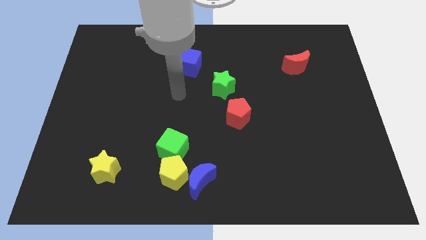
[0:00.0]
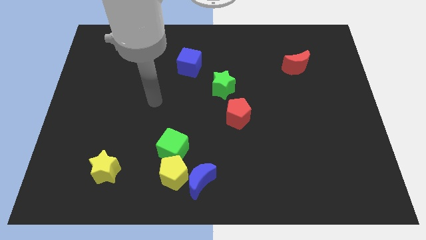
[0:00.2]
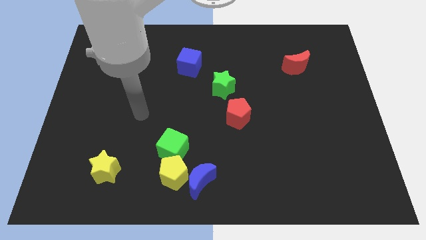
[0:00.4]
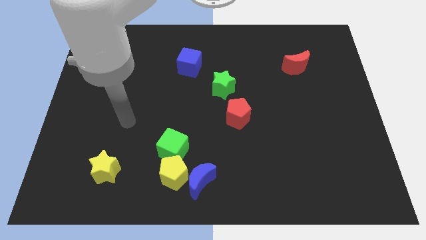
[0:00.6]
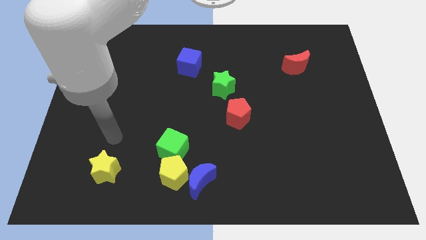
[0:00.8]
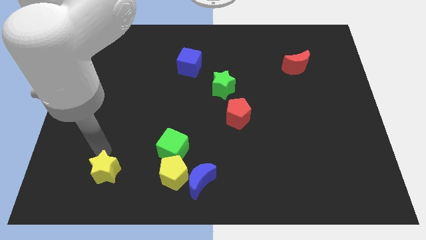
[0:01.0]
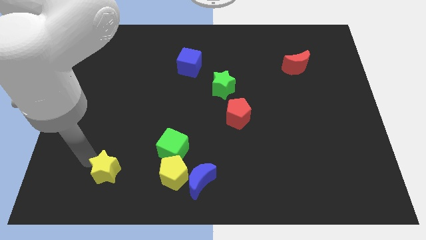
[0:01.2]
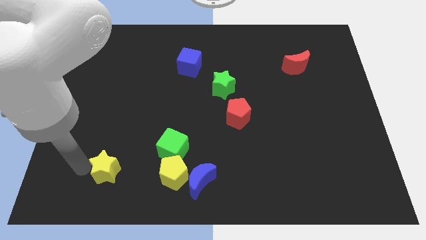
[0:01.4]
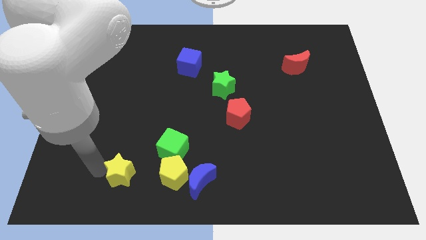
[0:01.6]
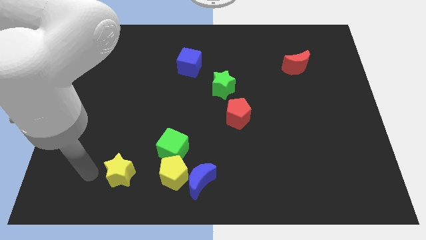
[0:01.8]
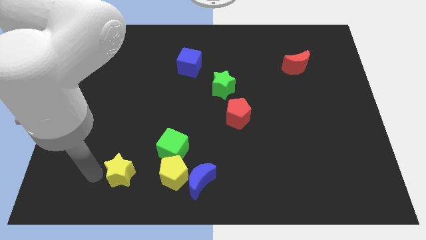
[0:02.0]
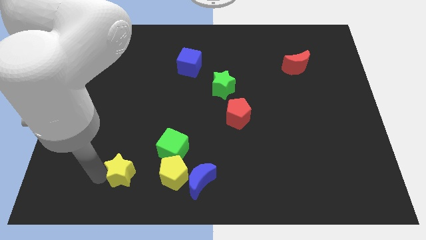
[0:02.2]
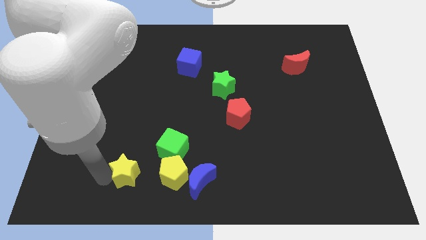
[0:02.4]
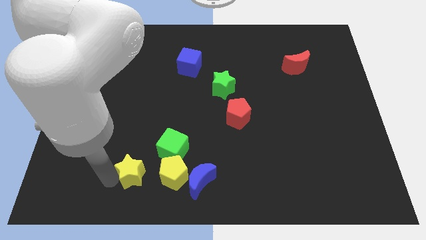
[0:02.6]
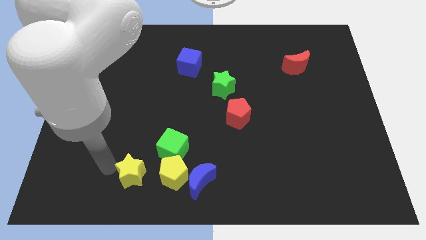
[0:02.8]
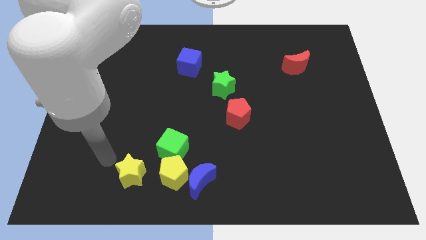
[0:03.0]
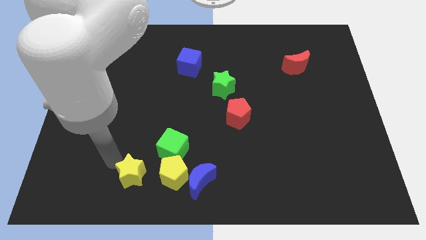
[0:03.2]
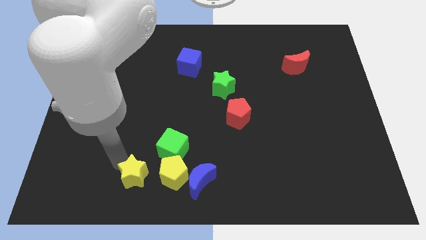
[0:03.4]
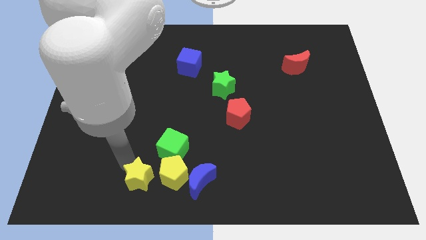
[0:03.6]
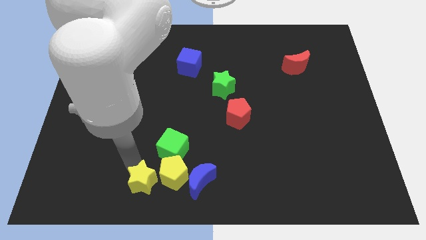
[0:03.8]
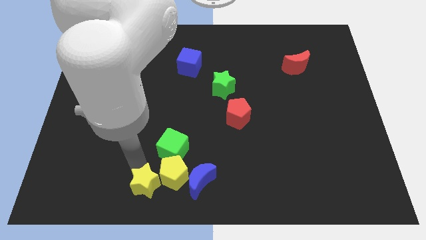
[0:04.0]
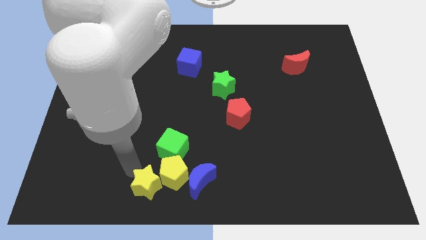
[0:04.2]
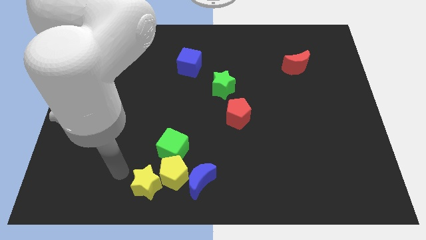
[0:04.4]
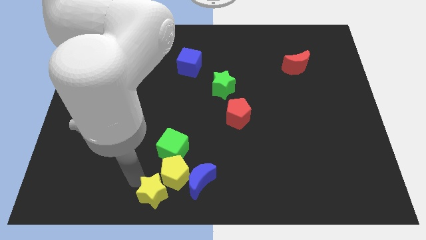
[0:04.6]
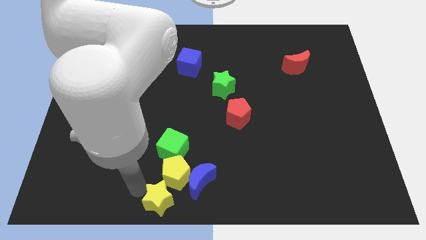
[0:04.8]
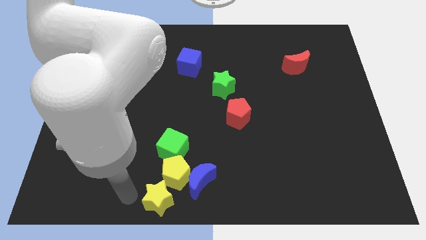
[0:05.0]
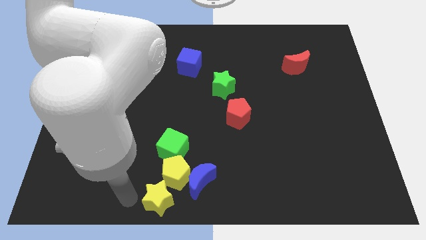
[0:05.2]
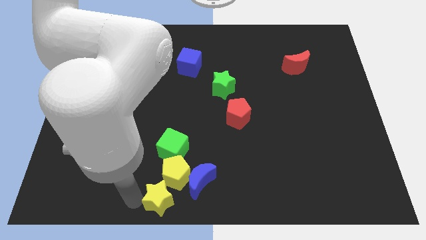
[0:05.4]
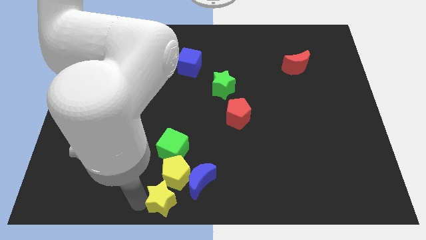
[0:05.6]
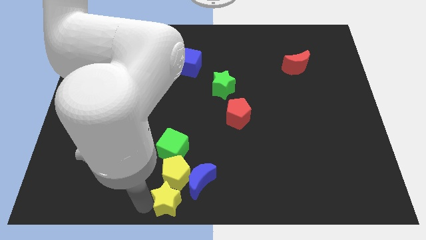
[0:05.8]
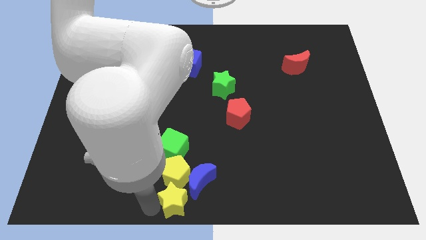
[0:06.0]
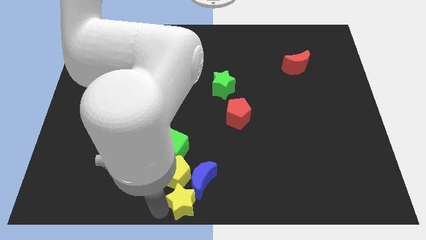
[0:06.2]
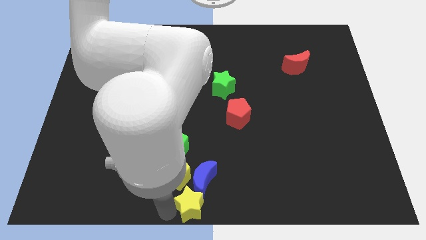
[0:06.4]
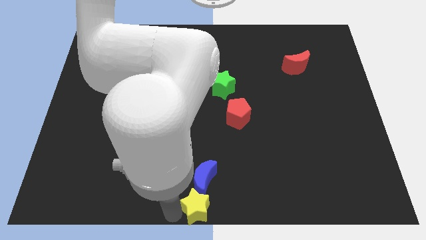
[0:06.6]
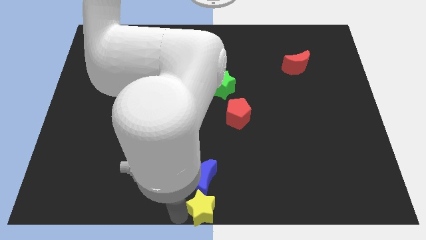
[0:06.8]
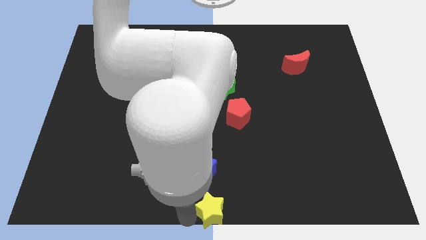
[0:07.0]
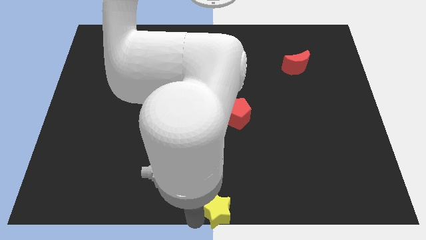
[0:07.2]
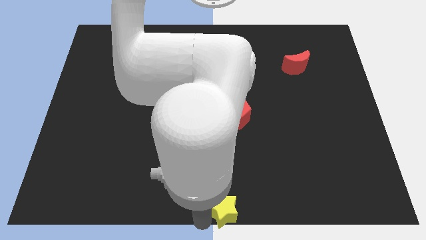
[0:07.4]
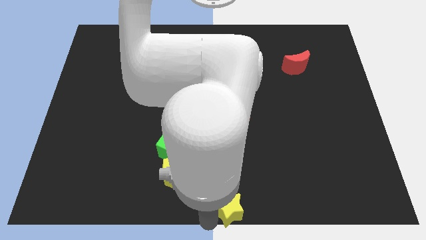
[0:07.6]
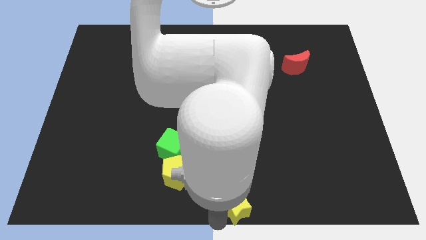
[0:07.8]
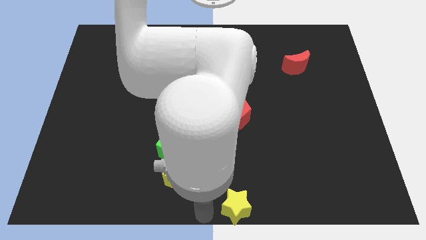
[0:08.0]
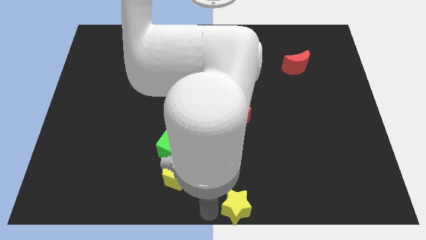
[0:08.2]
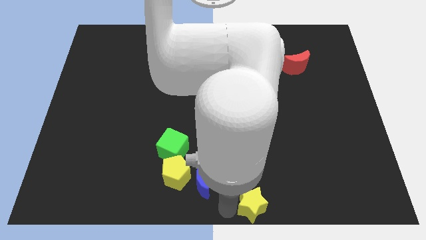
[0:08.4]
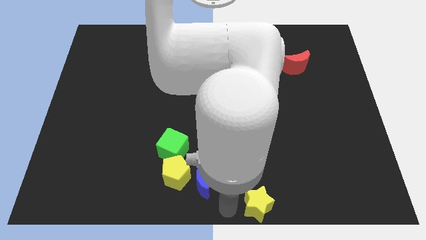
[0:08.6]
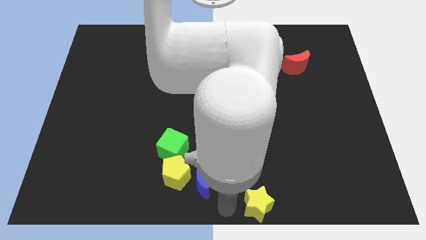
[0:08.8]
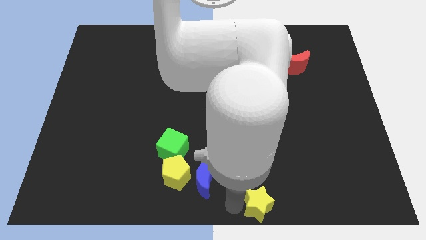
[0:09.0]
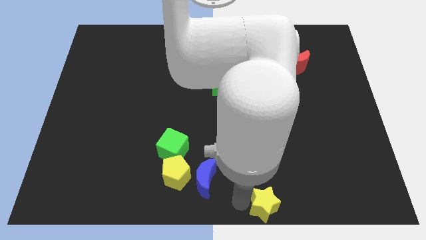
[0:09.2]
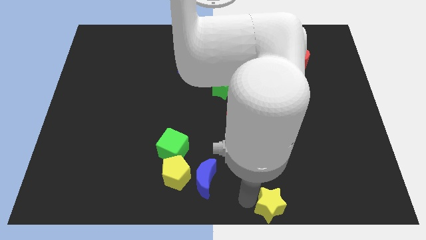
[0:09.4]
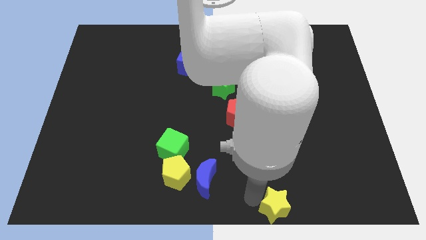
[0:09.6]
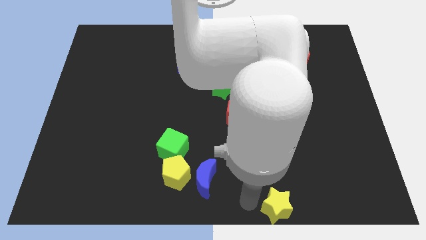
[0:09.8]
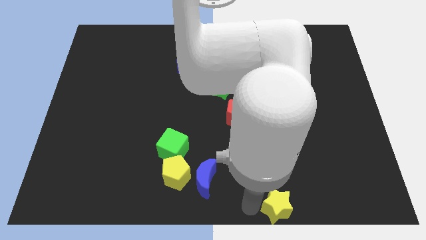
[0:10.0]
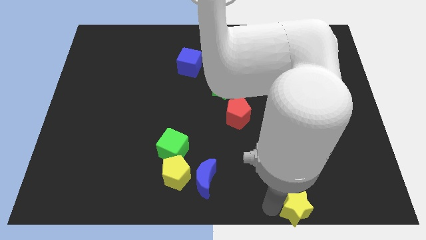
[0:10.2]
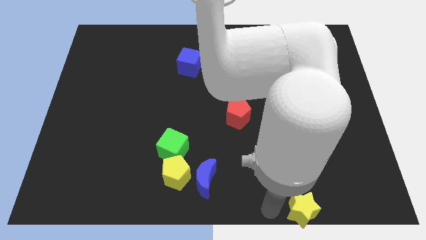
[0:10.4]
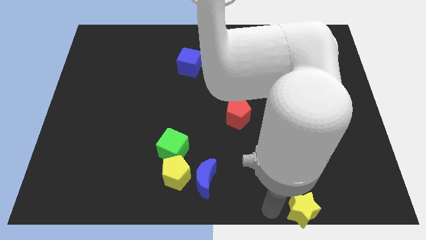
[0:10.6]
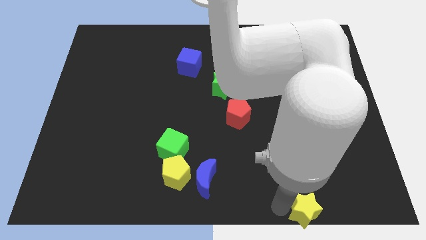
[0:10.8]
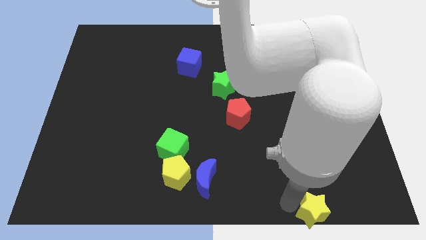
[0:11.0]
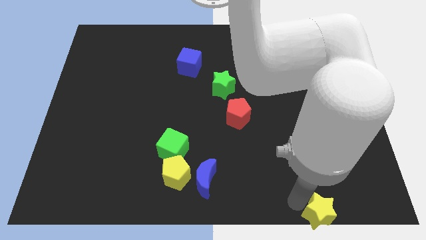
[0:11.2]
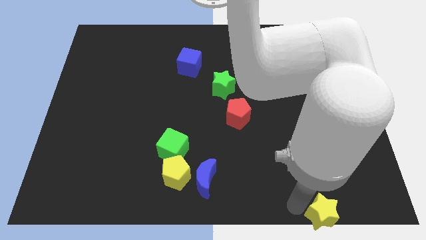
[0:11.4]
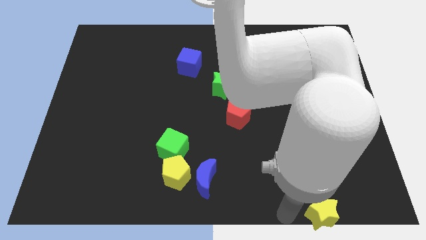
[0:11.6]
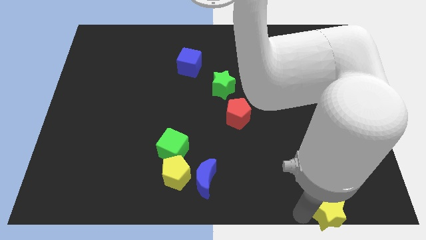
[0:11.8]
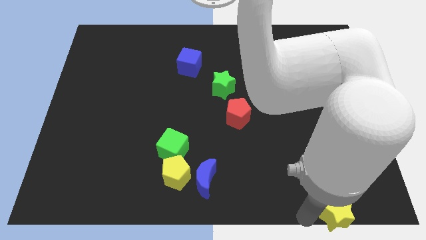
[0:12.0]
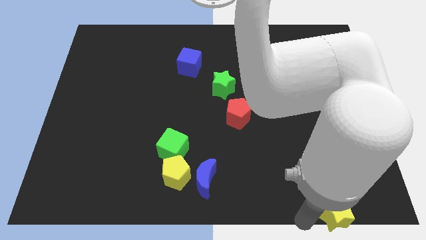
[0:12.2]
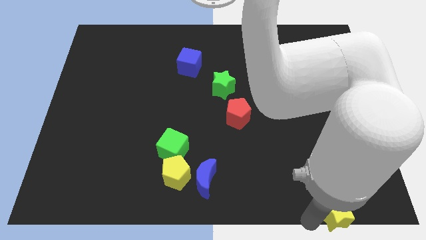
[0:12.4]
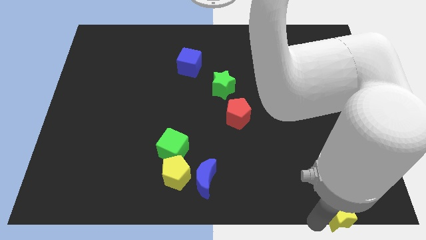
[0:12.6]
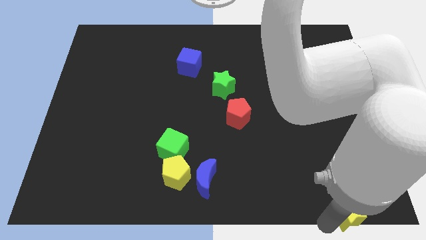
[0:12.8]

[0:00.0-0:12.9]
push the yellow star to the bottom right of the board

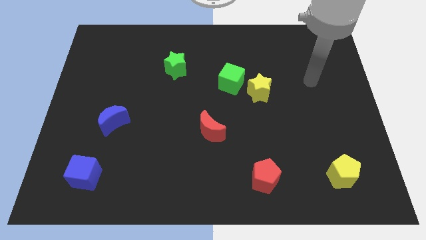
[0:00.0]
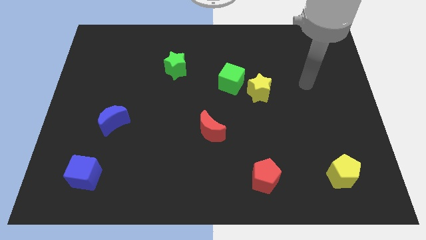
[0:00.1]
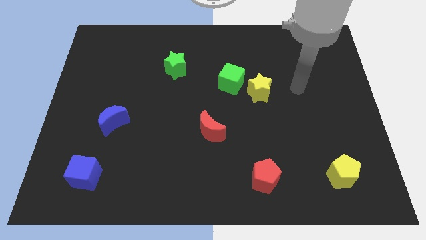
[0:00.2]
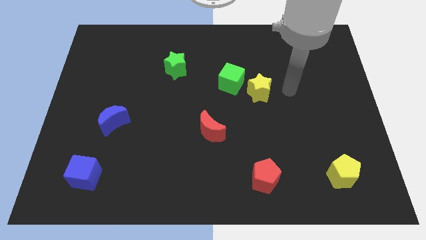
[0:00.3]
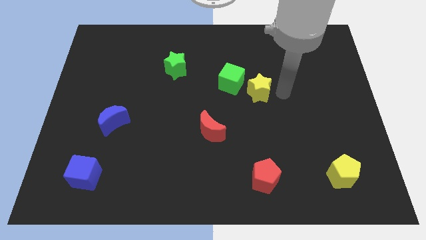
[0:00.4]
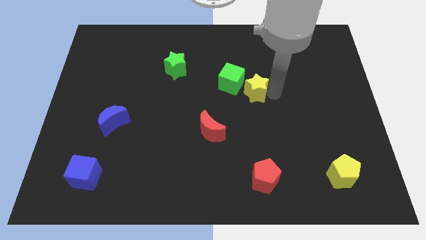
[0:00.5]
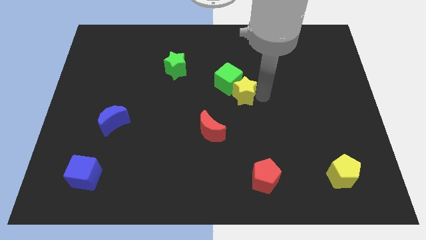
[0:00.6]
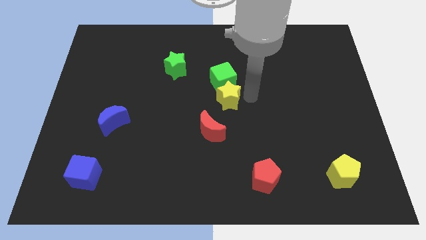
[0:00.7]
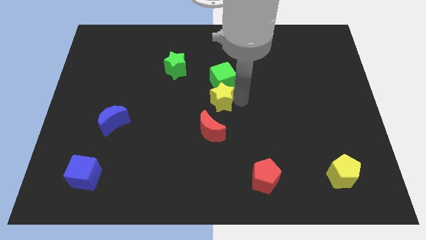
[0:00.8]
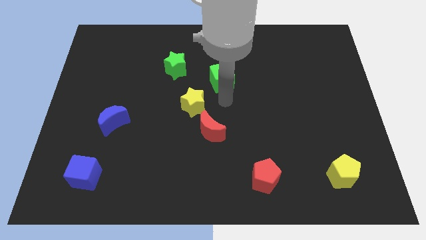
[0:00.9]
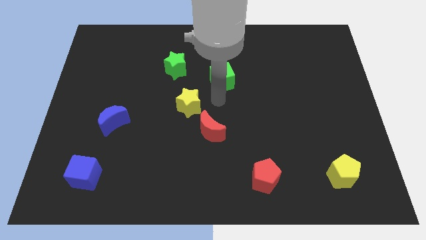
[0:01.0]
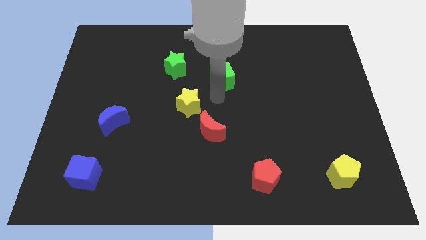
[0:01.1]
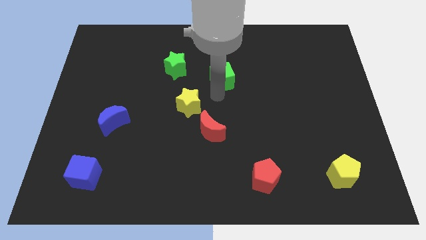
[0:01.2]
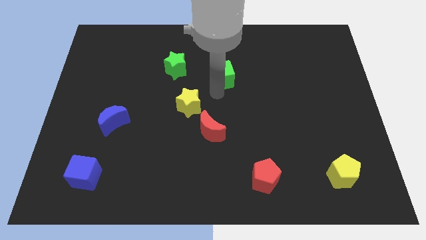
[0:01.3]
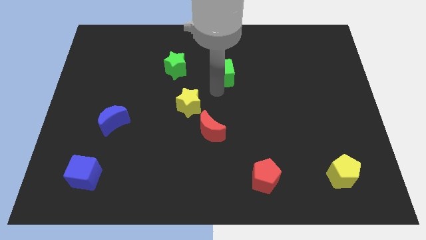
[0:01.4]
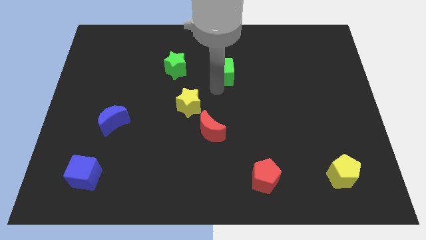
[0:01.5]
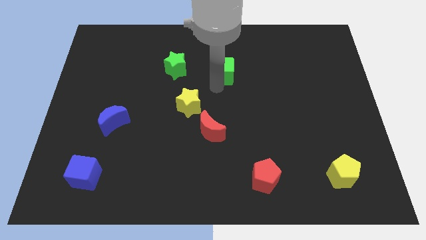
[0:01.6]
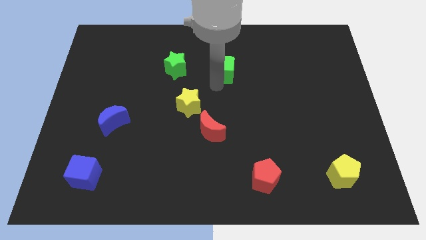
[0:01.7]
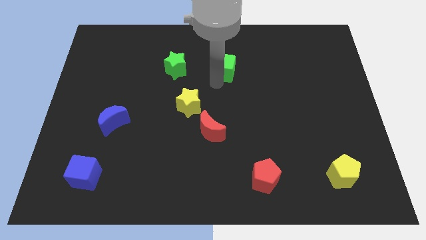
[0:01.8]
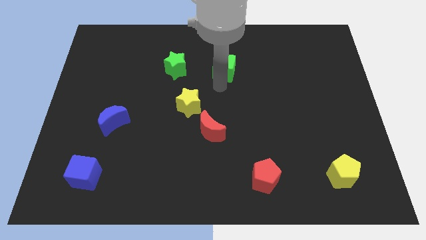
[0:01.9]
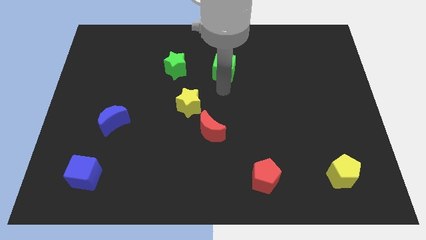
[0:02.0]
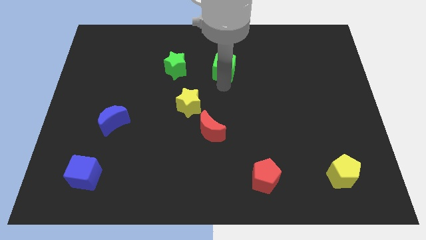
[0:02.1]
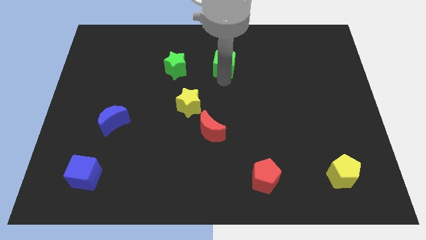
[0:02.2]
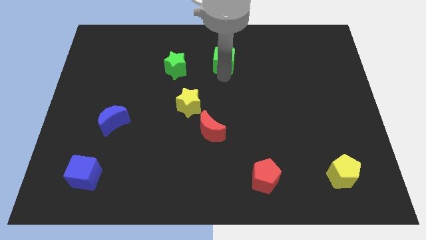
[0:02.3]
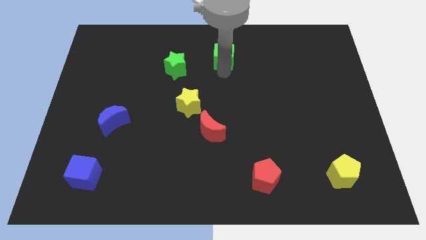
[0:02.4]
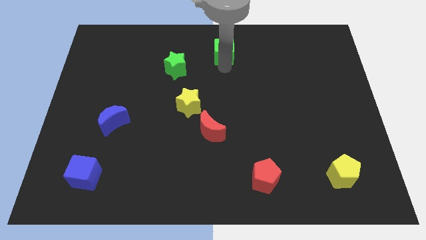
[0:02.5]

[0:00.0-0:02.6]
push the green cube to the top
